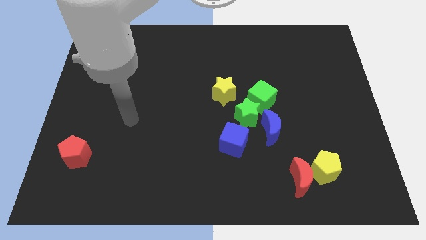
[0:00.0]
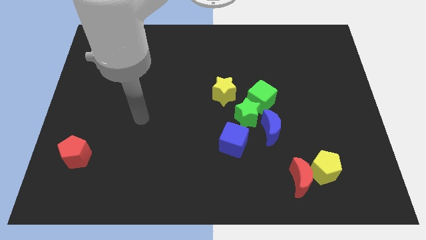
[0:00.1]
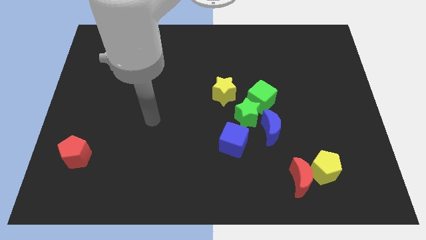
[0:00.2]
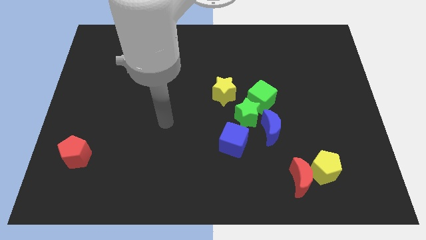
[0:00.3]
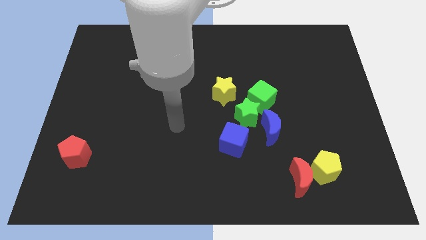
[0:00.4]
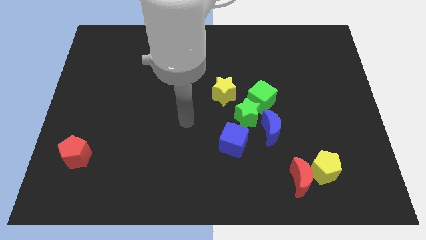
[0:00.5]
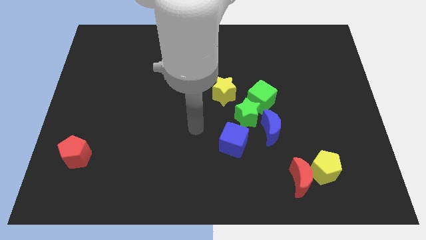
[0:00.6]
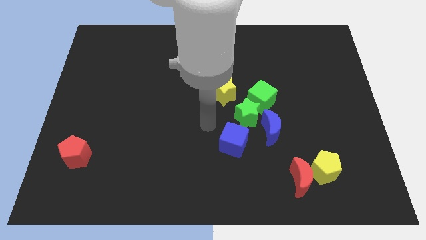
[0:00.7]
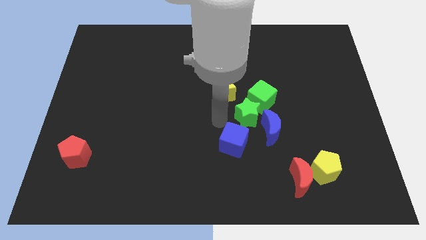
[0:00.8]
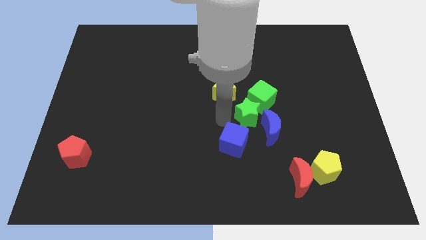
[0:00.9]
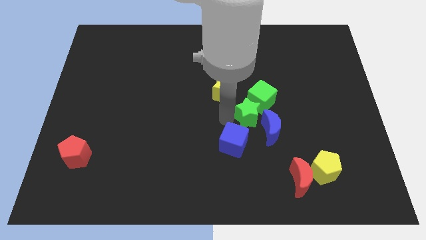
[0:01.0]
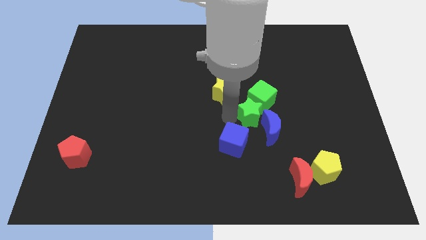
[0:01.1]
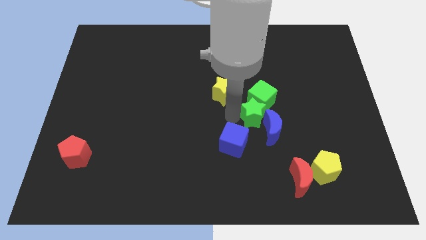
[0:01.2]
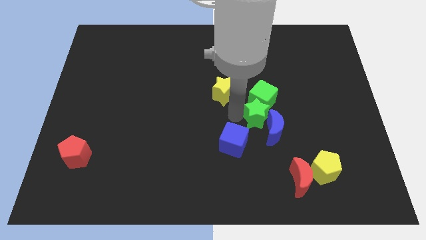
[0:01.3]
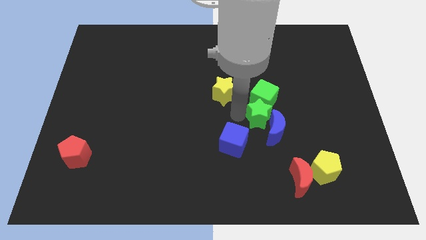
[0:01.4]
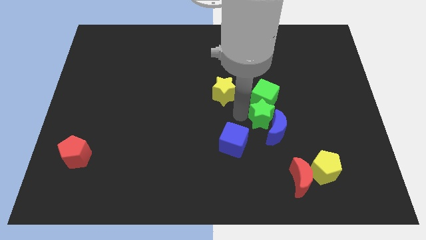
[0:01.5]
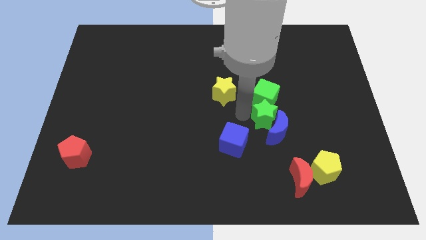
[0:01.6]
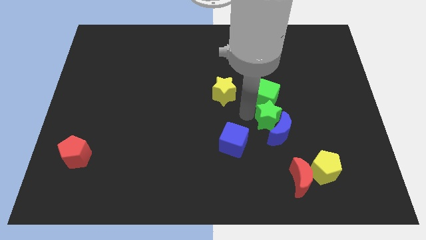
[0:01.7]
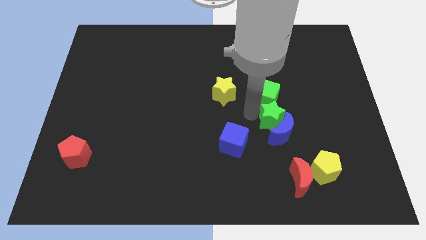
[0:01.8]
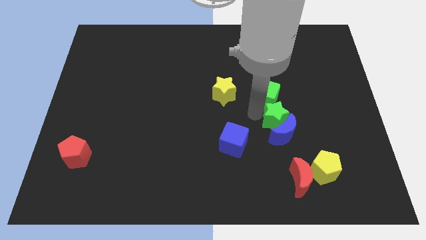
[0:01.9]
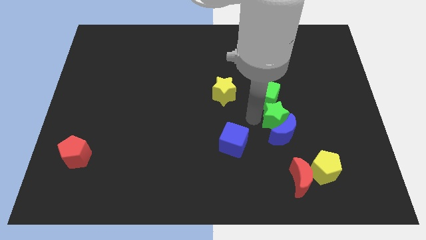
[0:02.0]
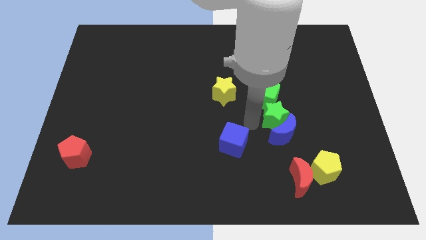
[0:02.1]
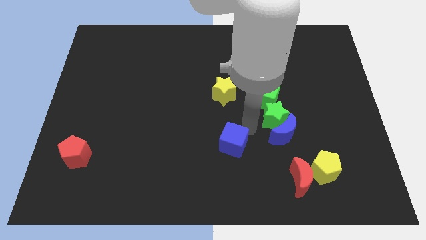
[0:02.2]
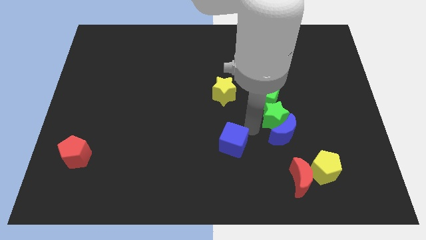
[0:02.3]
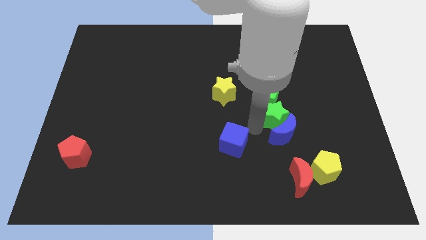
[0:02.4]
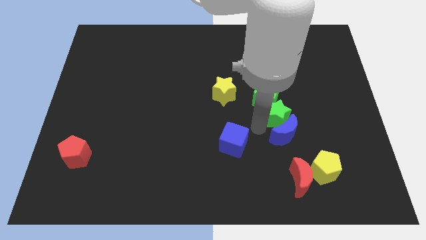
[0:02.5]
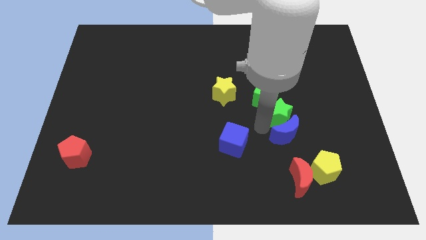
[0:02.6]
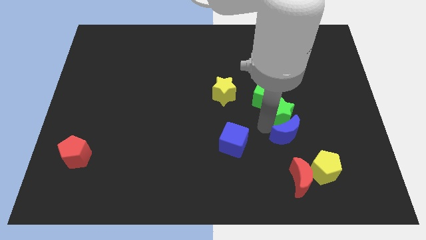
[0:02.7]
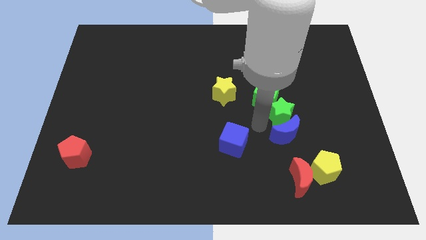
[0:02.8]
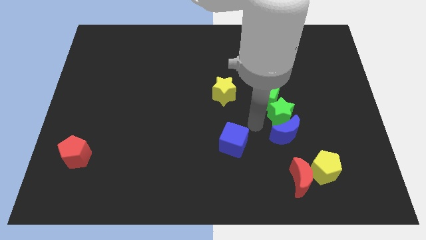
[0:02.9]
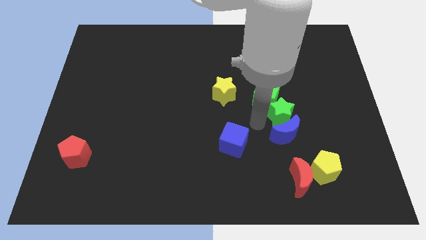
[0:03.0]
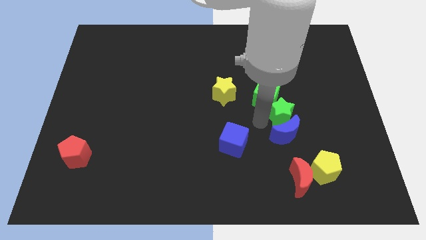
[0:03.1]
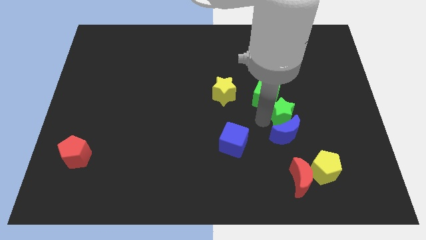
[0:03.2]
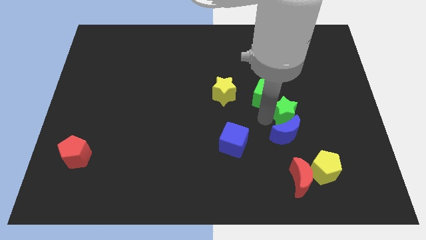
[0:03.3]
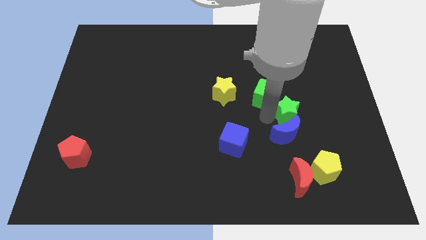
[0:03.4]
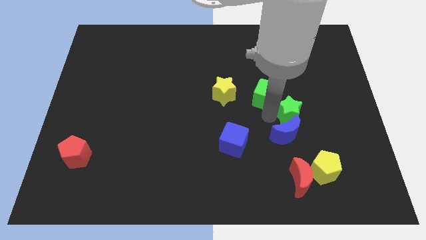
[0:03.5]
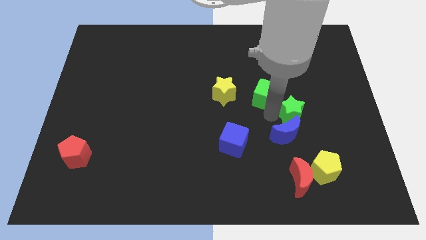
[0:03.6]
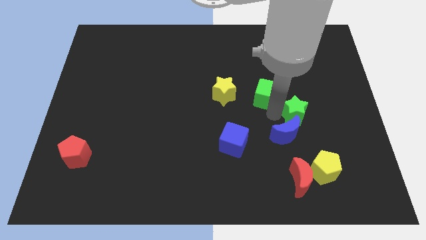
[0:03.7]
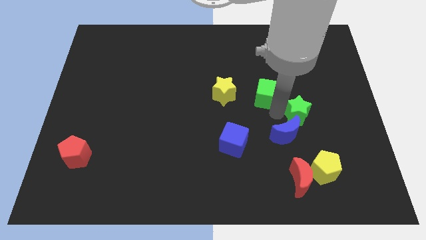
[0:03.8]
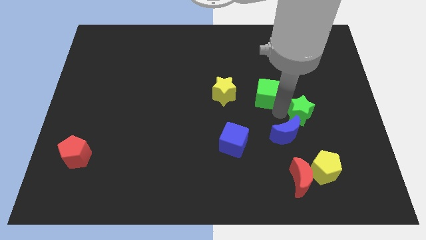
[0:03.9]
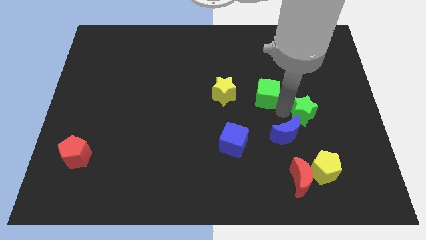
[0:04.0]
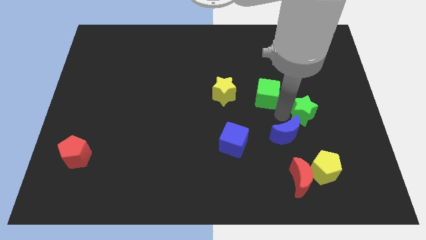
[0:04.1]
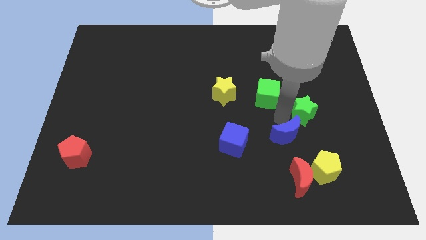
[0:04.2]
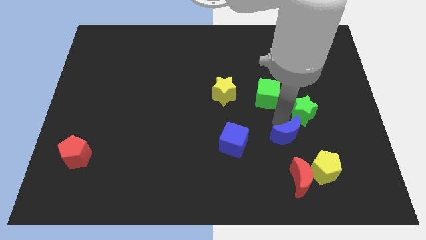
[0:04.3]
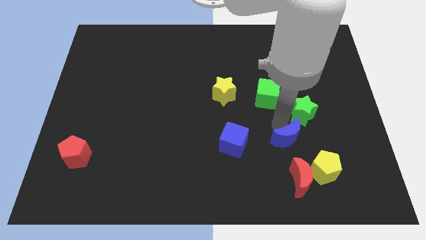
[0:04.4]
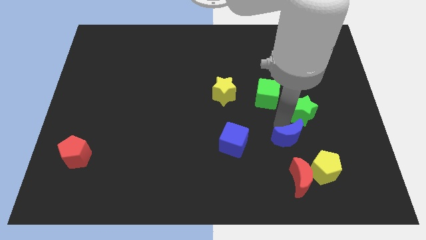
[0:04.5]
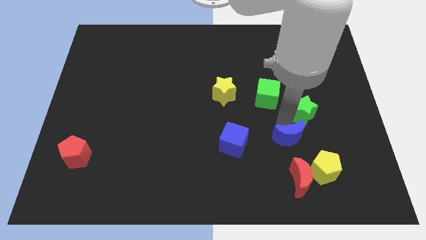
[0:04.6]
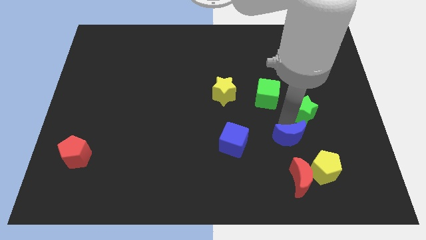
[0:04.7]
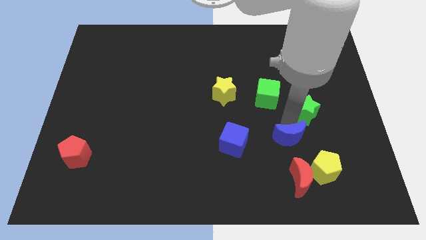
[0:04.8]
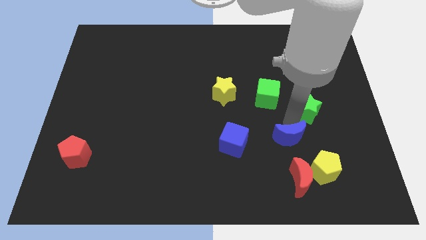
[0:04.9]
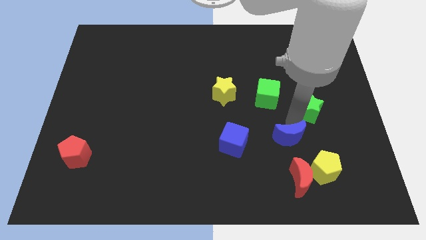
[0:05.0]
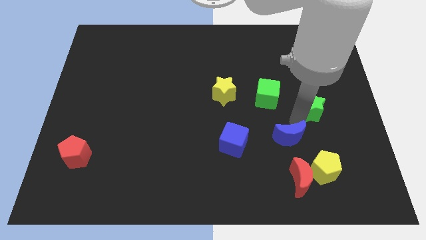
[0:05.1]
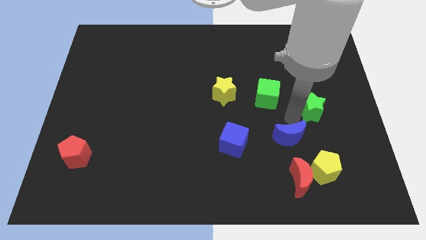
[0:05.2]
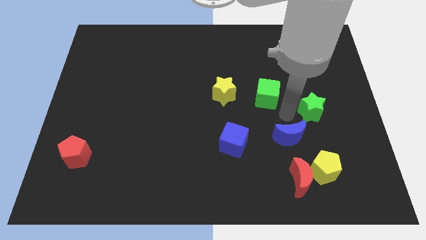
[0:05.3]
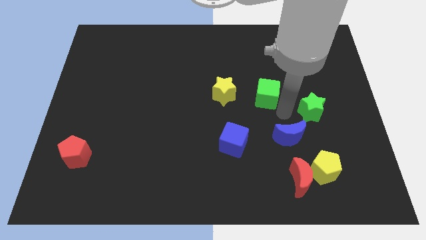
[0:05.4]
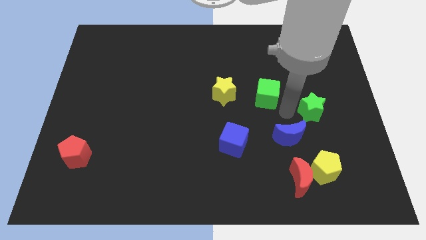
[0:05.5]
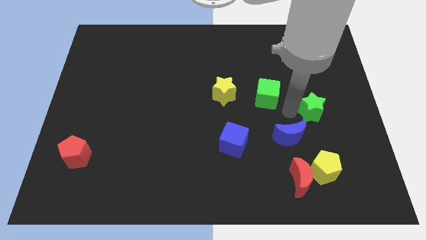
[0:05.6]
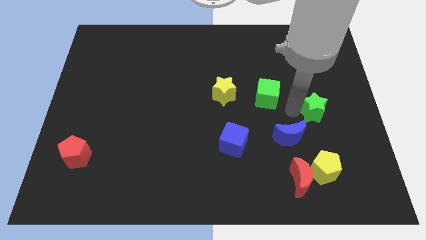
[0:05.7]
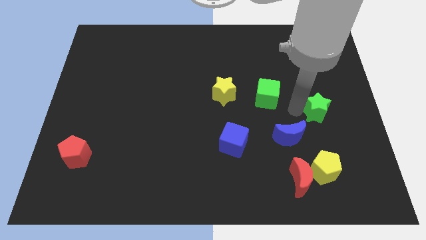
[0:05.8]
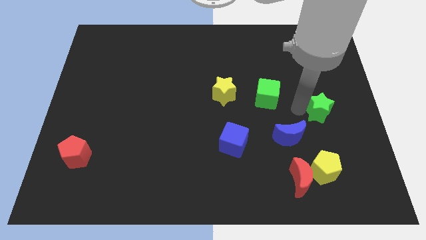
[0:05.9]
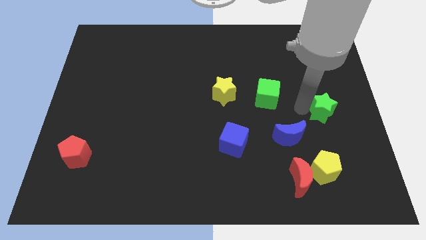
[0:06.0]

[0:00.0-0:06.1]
move the green star to the right side of the board
